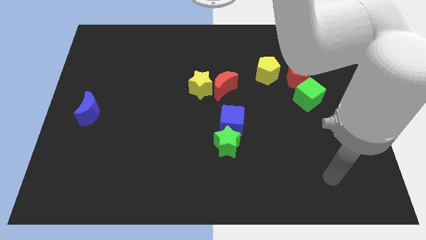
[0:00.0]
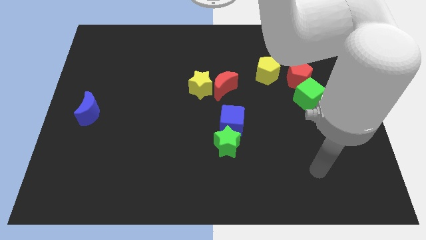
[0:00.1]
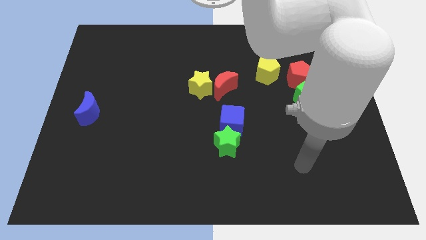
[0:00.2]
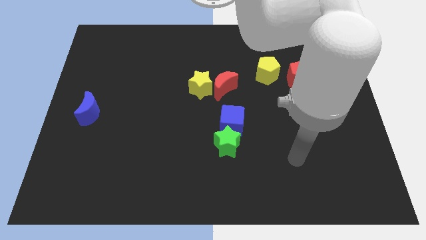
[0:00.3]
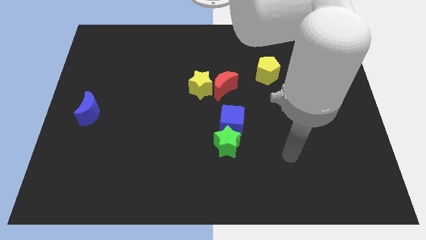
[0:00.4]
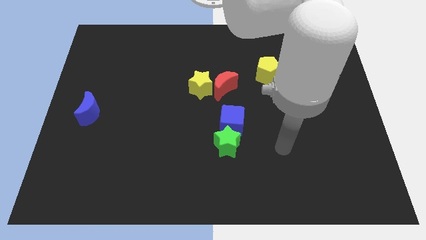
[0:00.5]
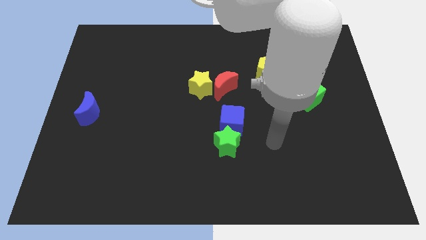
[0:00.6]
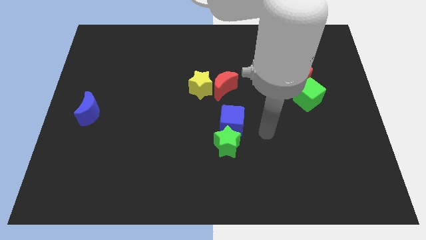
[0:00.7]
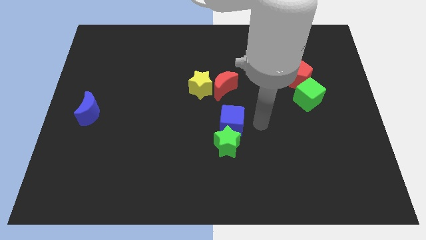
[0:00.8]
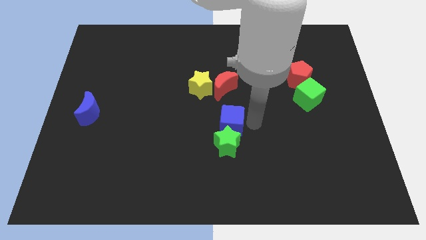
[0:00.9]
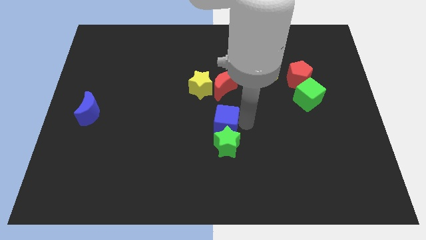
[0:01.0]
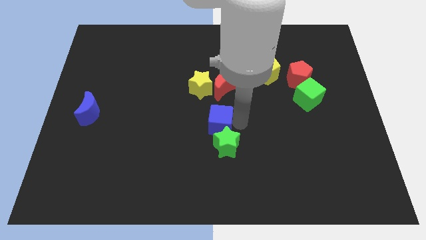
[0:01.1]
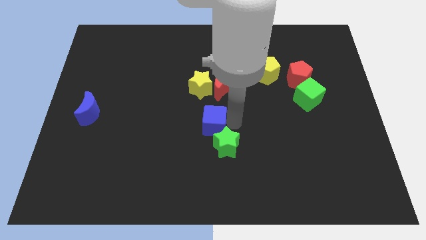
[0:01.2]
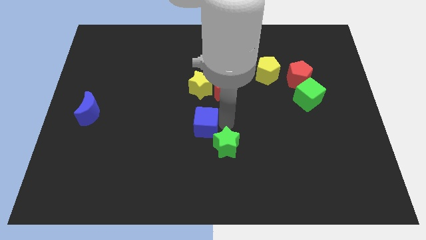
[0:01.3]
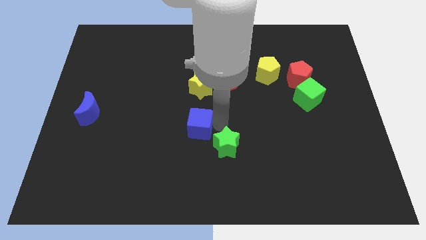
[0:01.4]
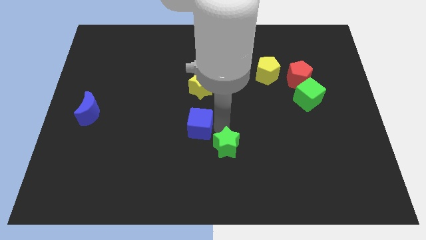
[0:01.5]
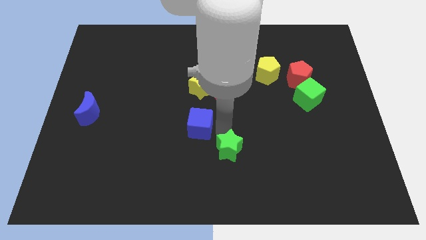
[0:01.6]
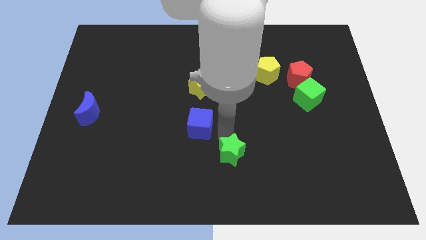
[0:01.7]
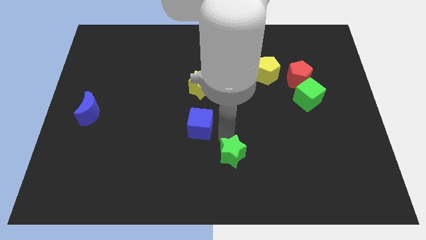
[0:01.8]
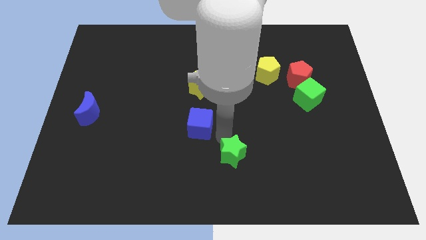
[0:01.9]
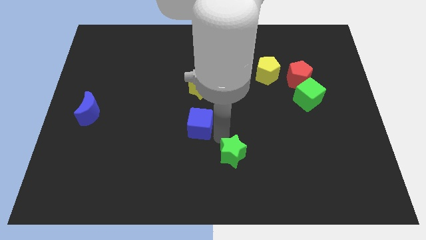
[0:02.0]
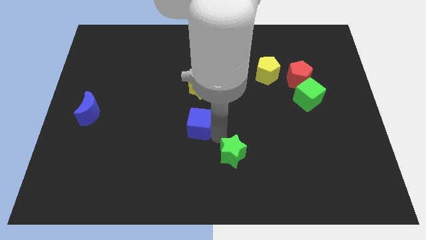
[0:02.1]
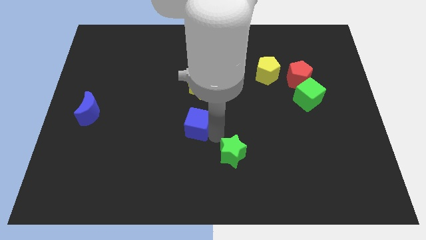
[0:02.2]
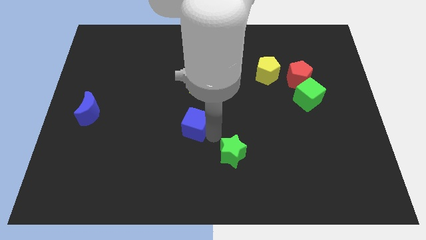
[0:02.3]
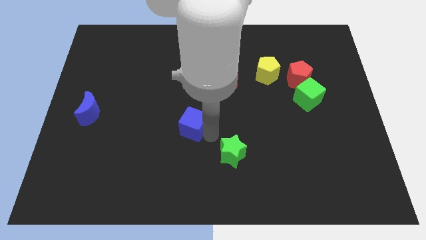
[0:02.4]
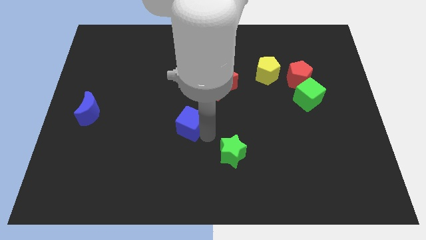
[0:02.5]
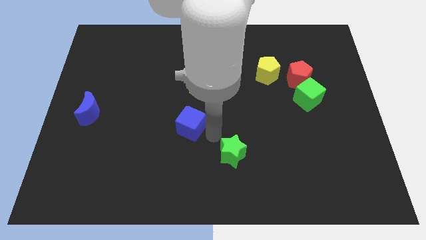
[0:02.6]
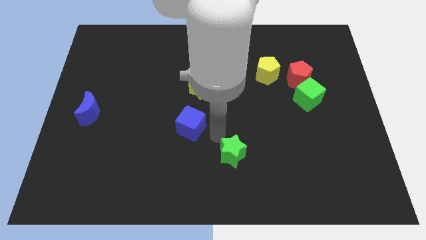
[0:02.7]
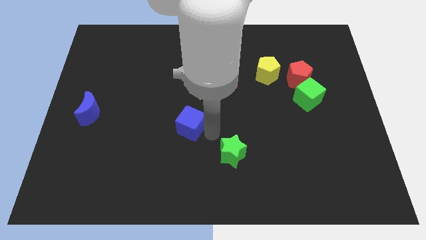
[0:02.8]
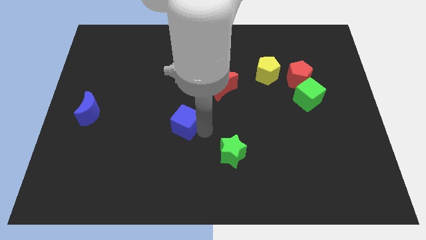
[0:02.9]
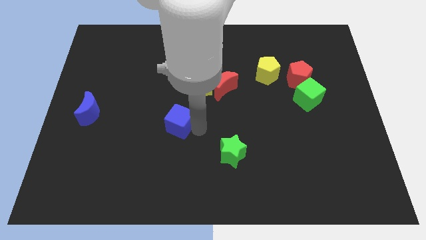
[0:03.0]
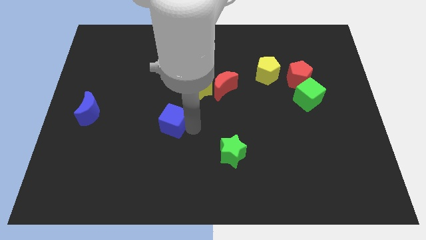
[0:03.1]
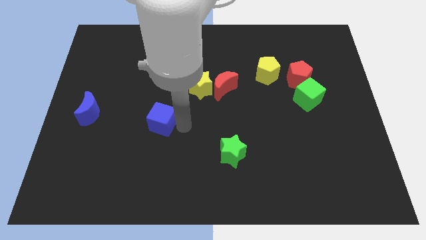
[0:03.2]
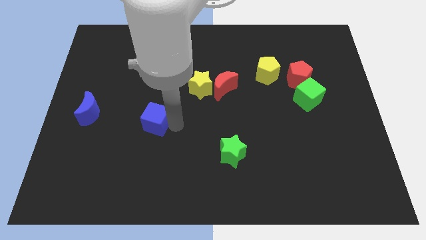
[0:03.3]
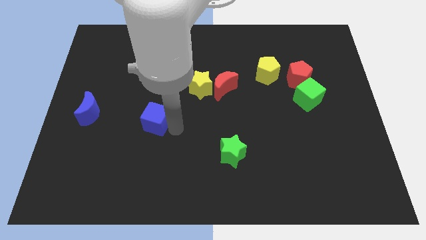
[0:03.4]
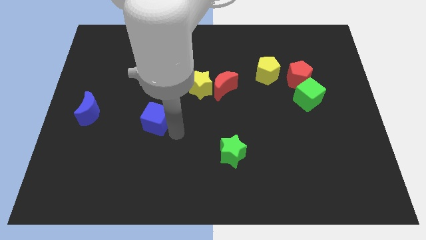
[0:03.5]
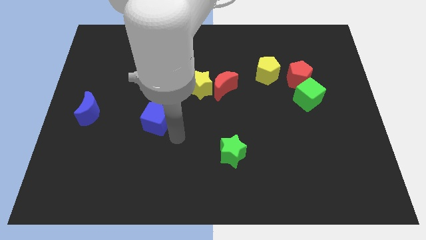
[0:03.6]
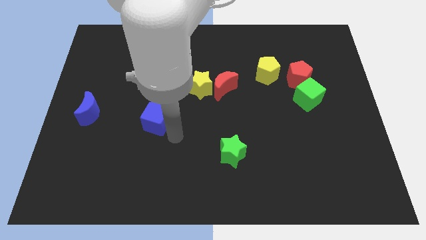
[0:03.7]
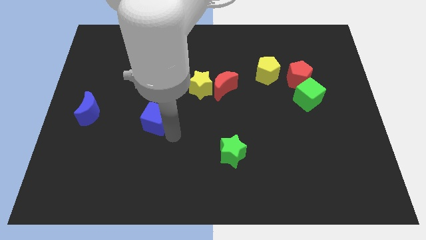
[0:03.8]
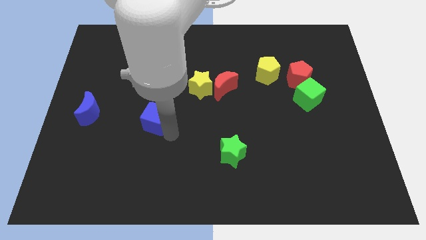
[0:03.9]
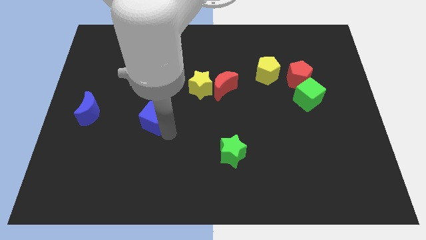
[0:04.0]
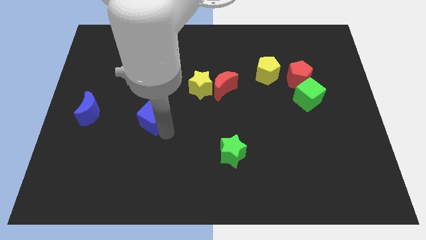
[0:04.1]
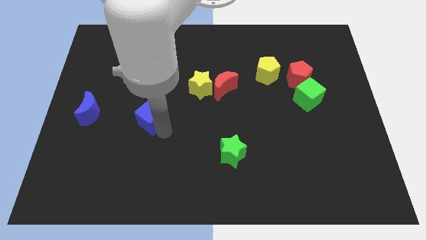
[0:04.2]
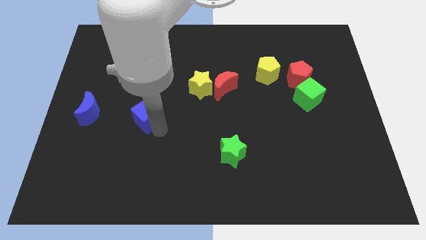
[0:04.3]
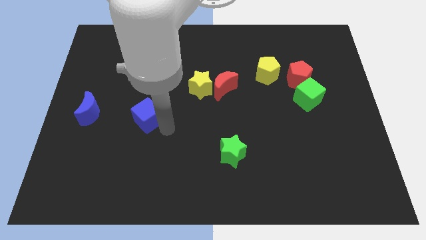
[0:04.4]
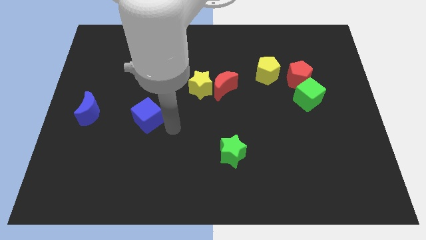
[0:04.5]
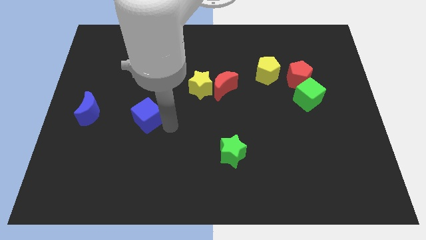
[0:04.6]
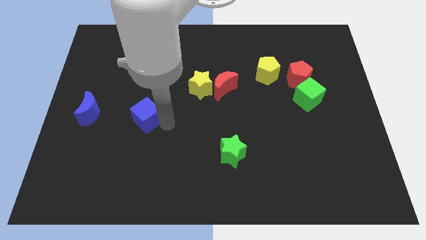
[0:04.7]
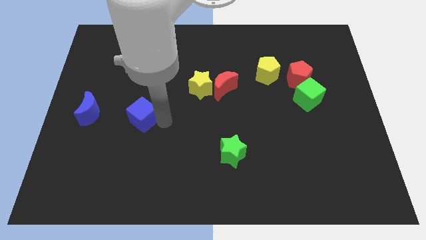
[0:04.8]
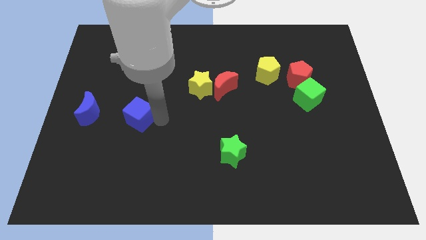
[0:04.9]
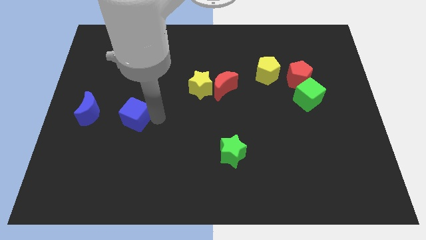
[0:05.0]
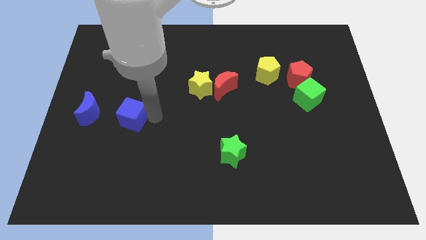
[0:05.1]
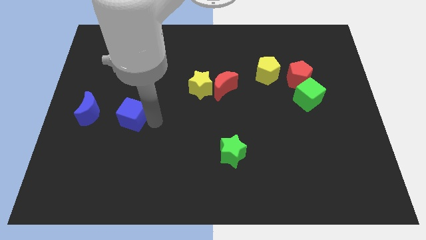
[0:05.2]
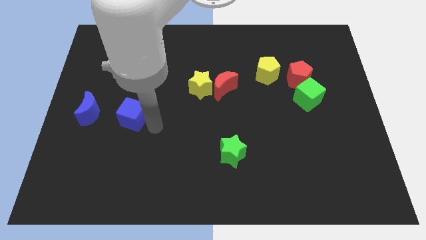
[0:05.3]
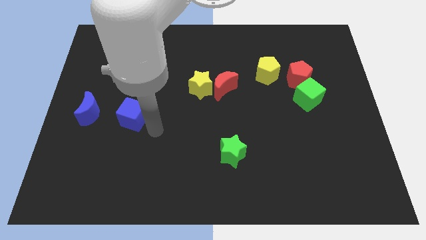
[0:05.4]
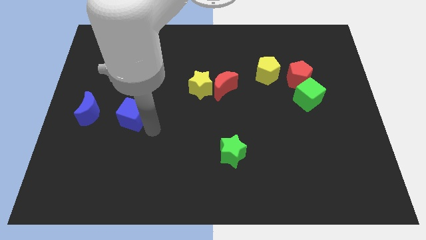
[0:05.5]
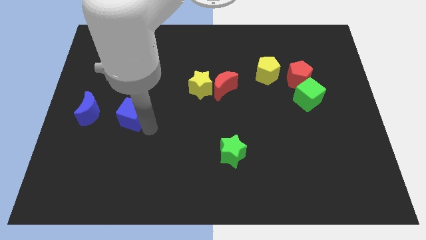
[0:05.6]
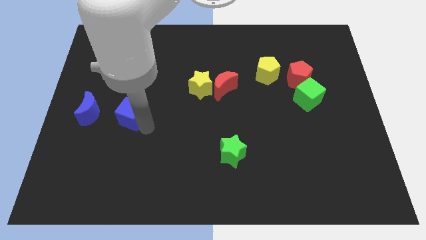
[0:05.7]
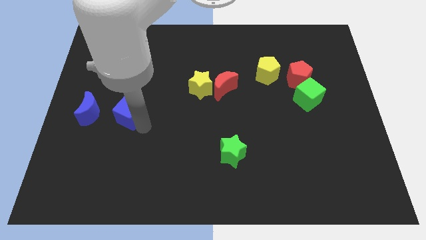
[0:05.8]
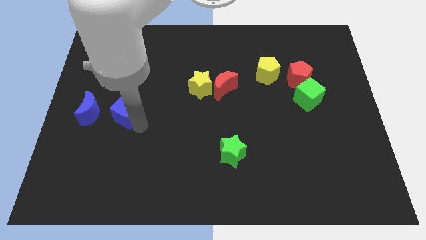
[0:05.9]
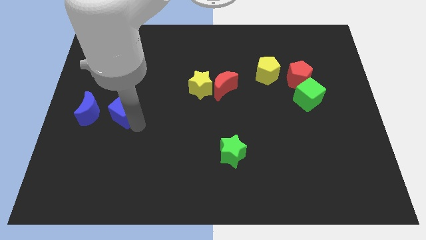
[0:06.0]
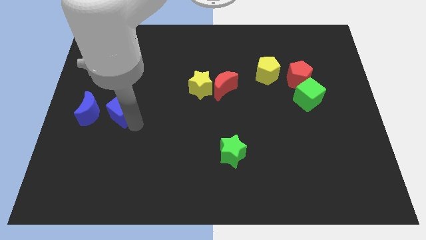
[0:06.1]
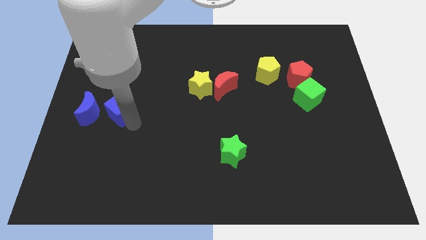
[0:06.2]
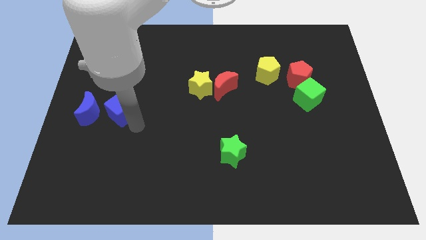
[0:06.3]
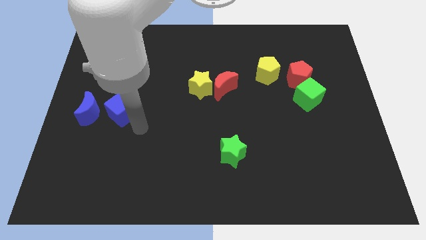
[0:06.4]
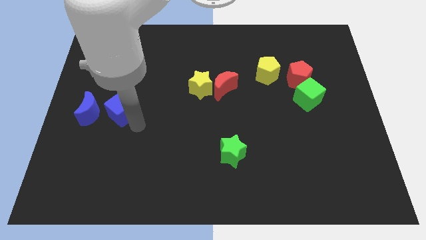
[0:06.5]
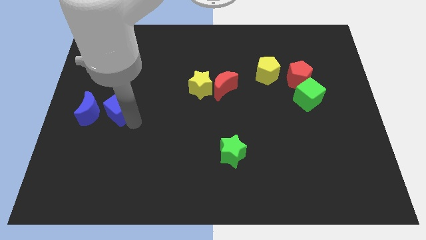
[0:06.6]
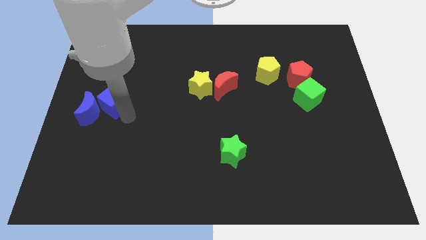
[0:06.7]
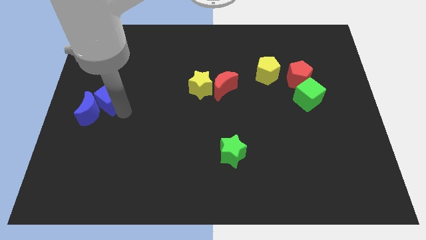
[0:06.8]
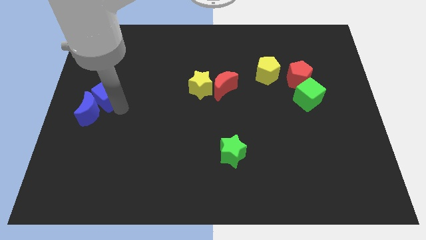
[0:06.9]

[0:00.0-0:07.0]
push the blue cube to the left side of the board

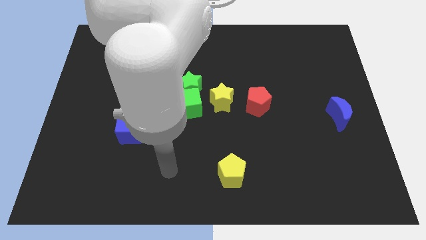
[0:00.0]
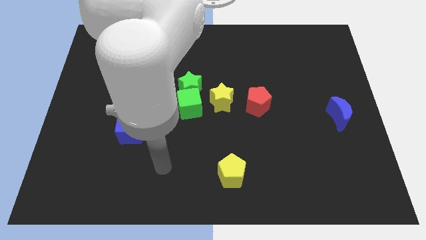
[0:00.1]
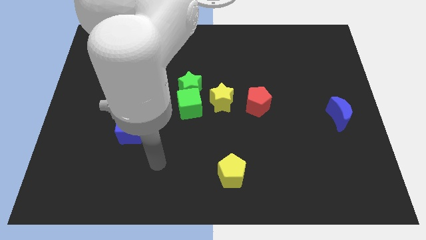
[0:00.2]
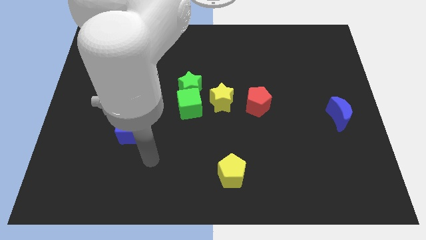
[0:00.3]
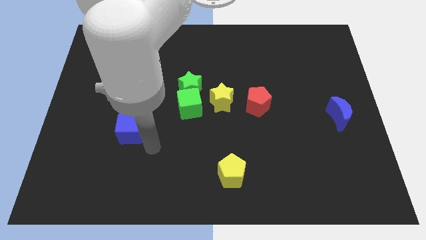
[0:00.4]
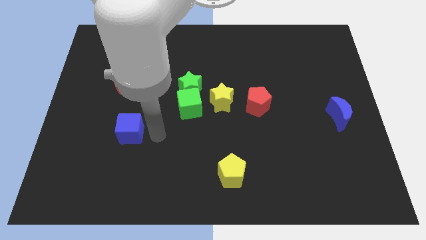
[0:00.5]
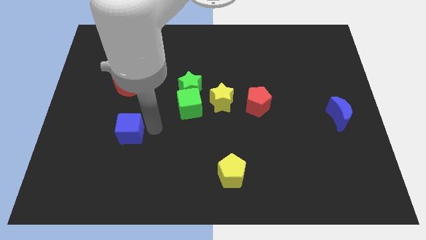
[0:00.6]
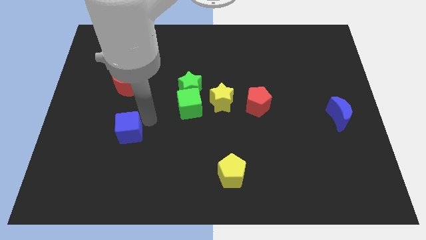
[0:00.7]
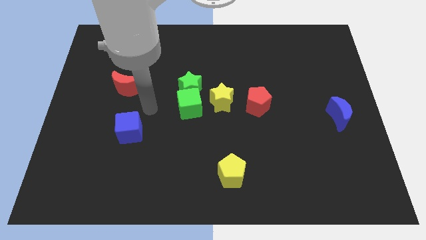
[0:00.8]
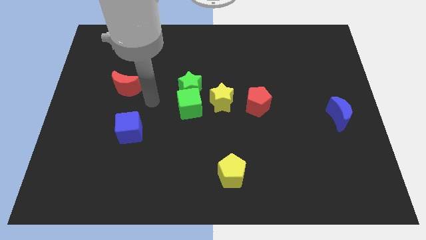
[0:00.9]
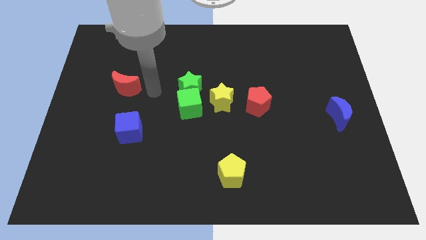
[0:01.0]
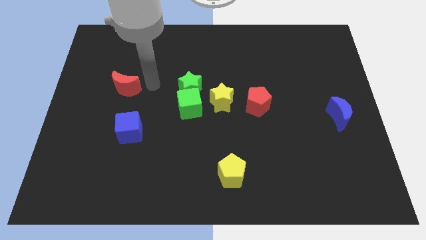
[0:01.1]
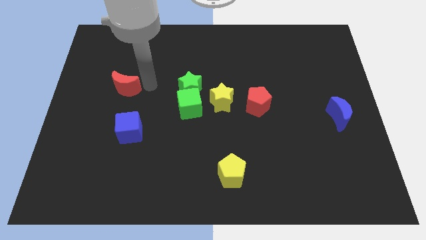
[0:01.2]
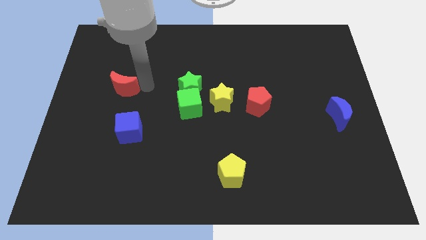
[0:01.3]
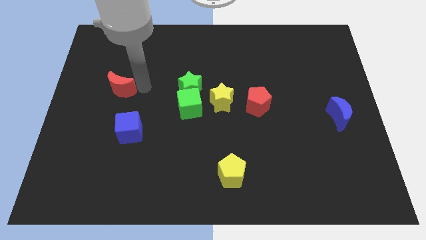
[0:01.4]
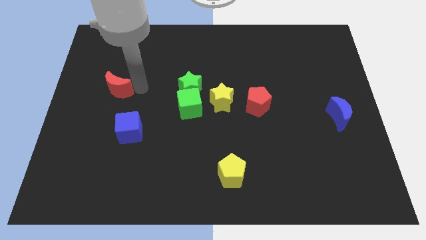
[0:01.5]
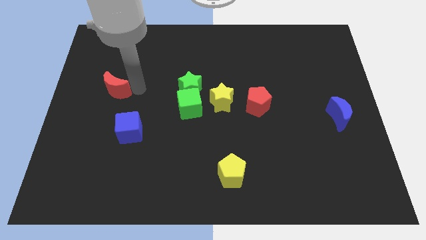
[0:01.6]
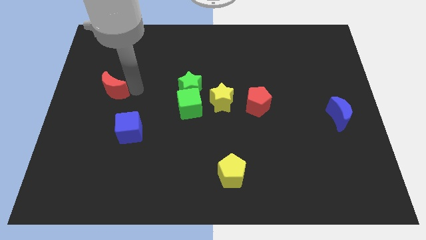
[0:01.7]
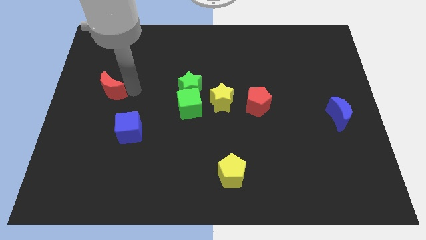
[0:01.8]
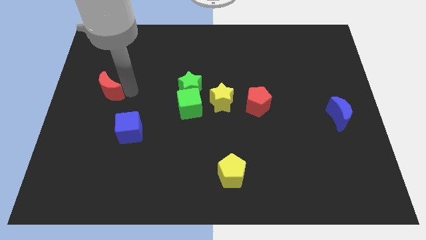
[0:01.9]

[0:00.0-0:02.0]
put the red moon to the left side of the board
